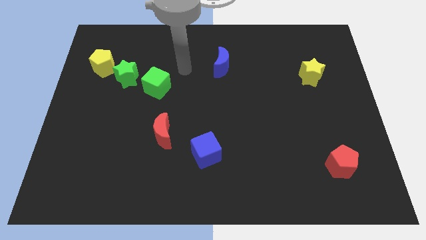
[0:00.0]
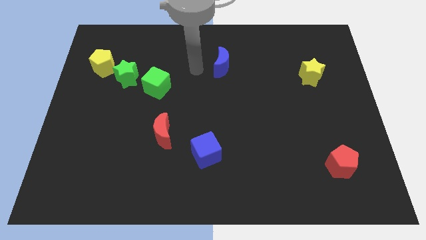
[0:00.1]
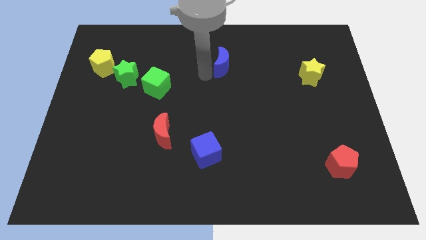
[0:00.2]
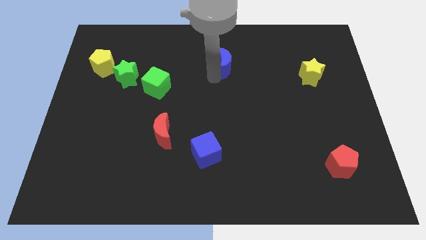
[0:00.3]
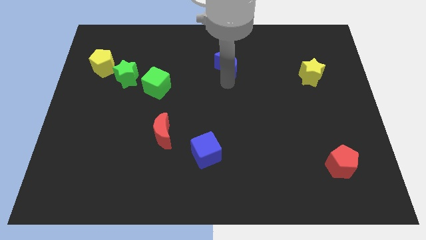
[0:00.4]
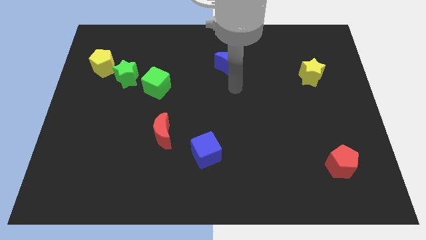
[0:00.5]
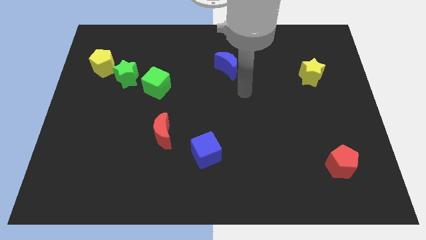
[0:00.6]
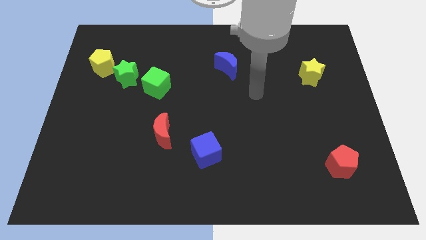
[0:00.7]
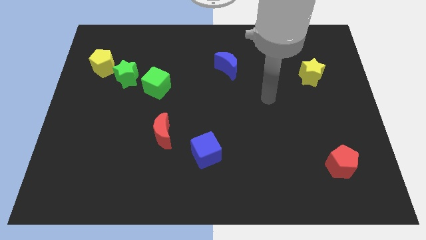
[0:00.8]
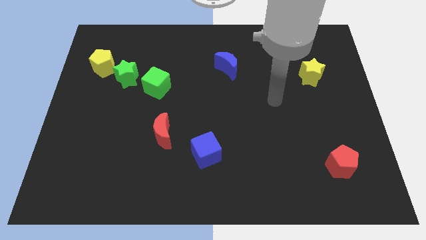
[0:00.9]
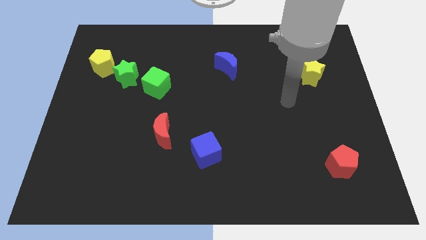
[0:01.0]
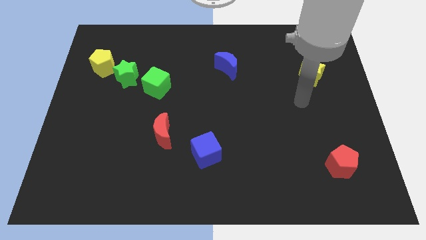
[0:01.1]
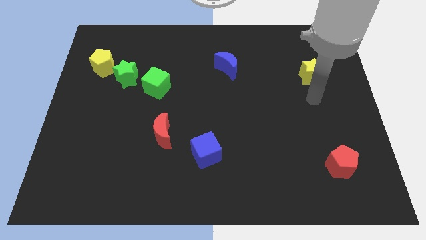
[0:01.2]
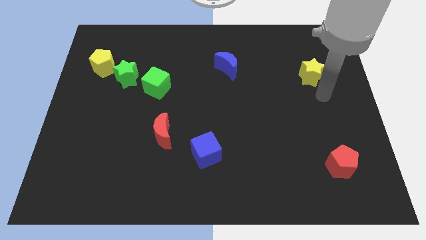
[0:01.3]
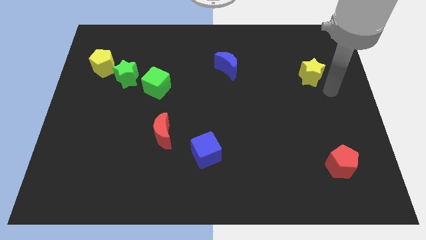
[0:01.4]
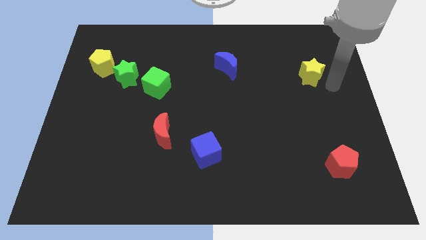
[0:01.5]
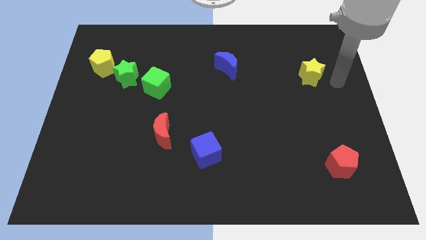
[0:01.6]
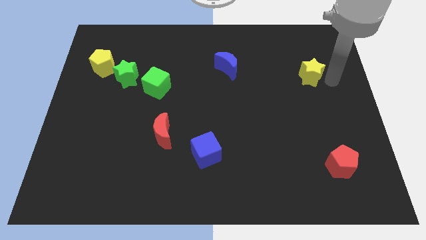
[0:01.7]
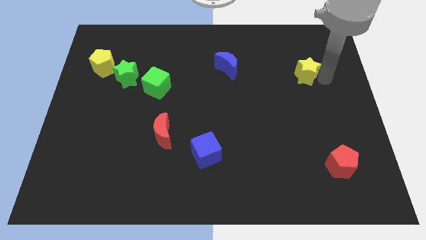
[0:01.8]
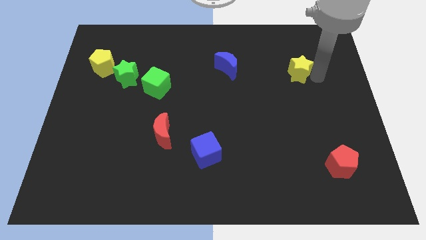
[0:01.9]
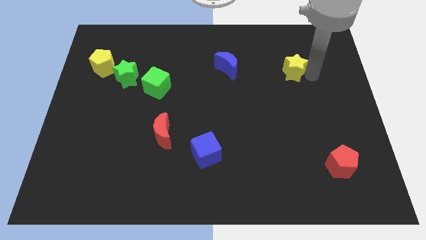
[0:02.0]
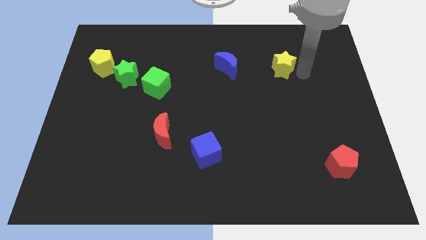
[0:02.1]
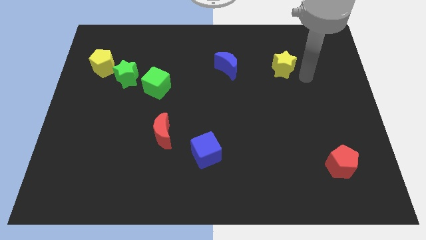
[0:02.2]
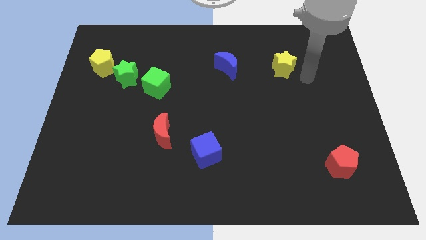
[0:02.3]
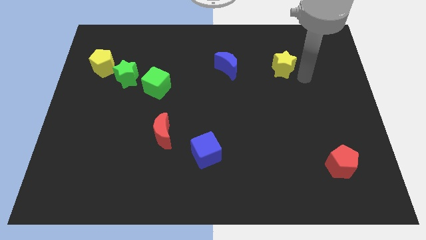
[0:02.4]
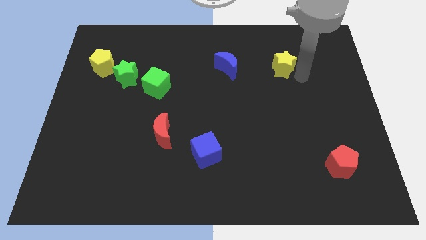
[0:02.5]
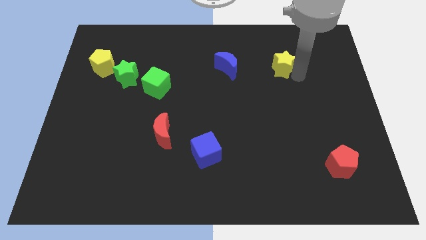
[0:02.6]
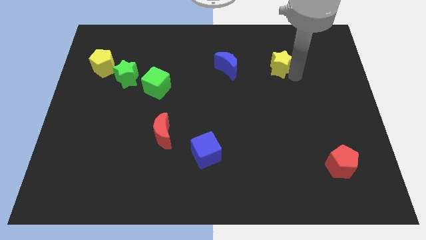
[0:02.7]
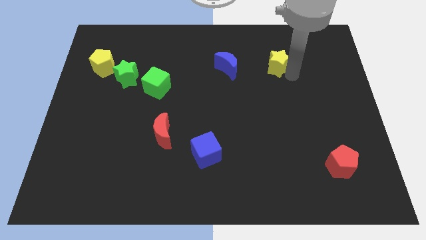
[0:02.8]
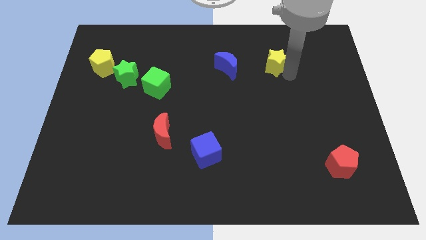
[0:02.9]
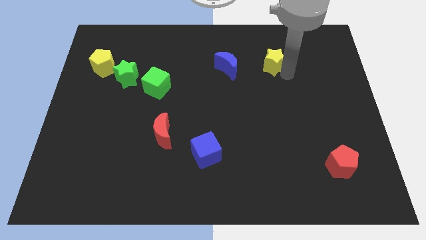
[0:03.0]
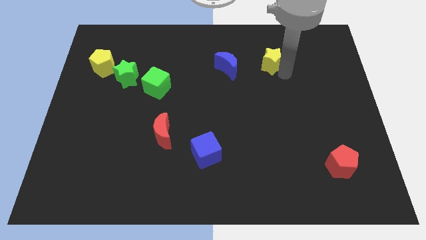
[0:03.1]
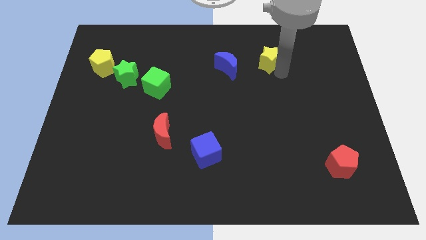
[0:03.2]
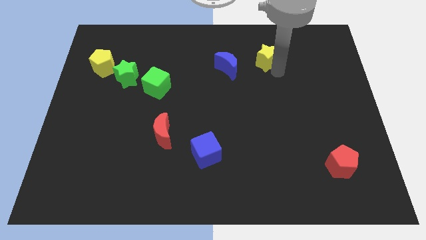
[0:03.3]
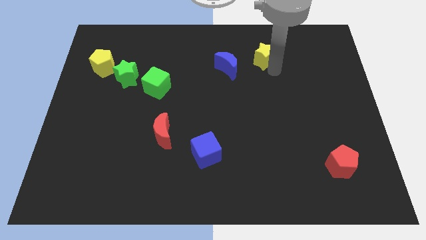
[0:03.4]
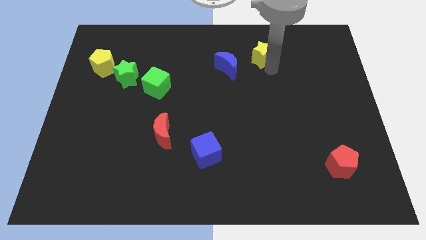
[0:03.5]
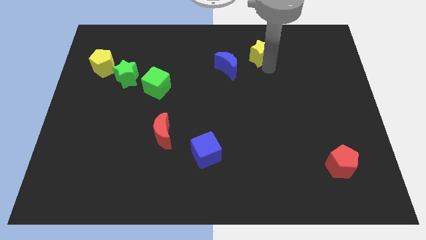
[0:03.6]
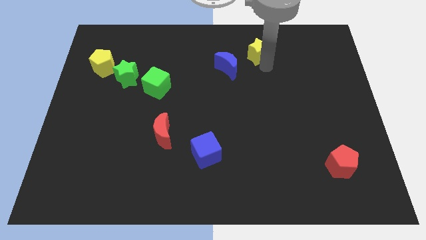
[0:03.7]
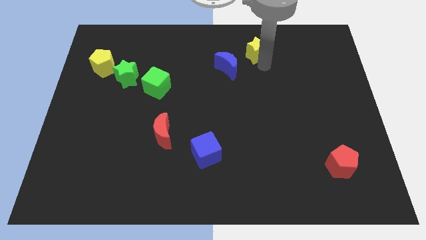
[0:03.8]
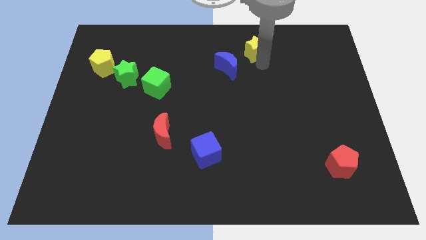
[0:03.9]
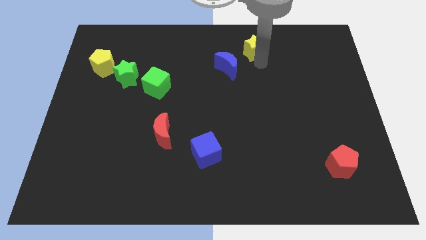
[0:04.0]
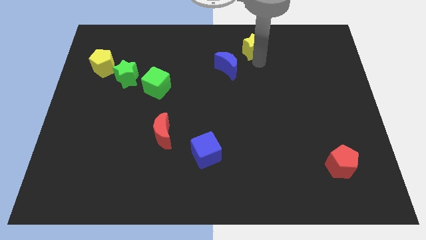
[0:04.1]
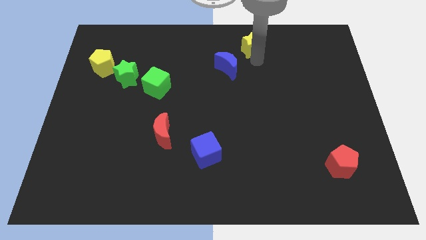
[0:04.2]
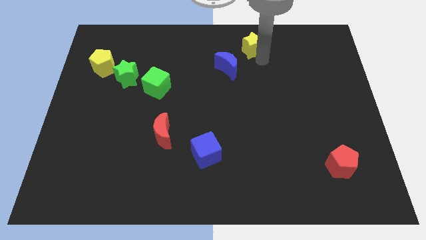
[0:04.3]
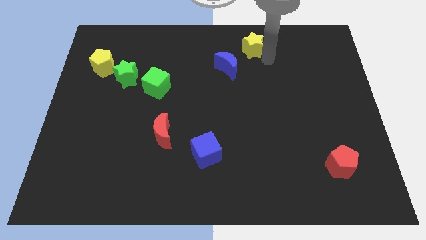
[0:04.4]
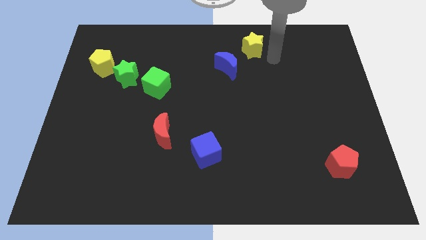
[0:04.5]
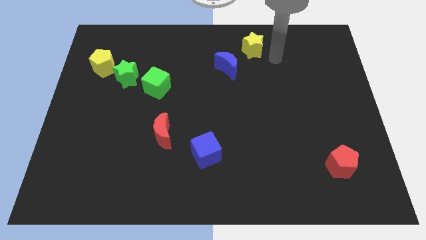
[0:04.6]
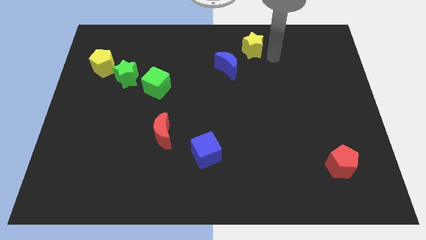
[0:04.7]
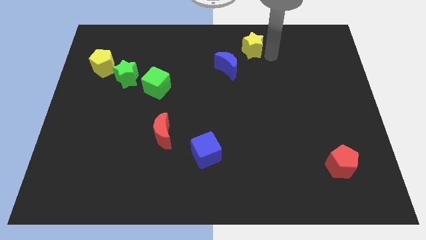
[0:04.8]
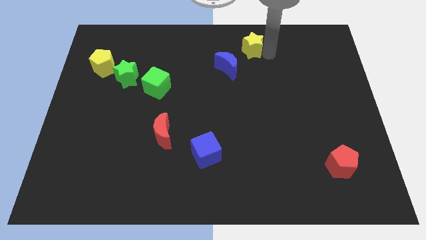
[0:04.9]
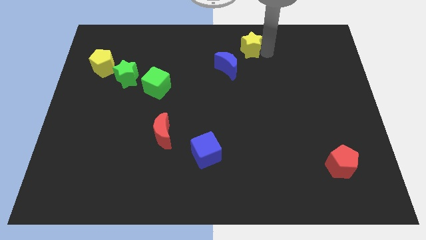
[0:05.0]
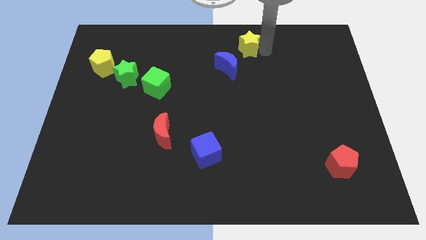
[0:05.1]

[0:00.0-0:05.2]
push the yellow star to the towards your base

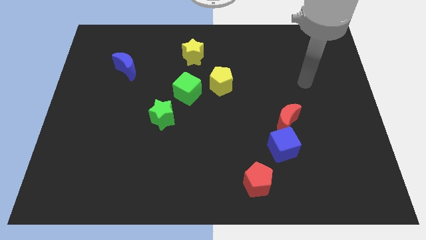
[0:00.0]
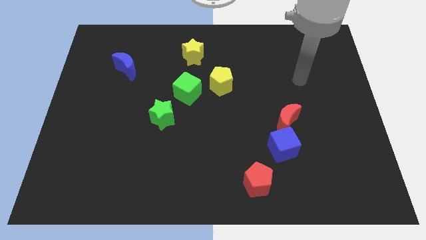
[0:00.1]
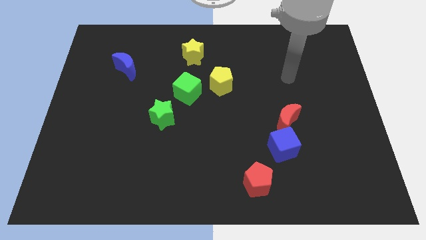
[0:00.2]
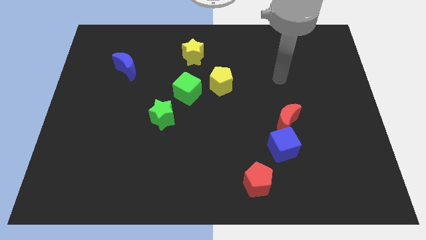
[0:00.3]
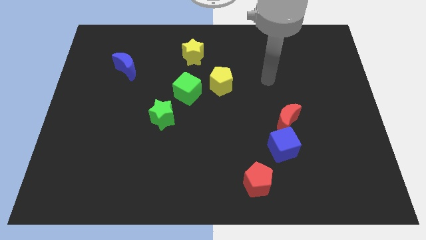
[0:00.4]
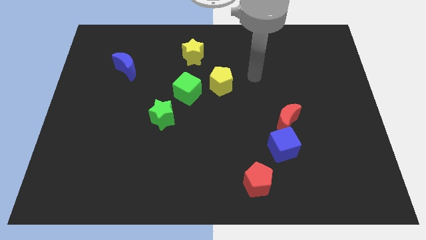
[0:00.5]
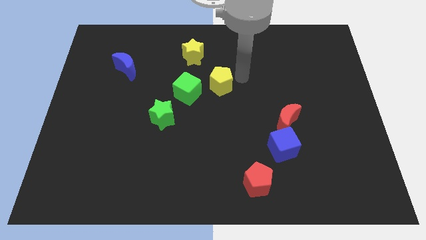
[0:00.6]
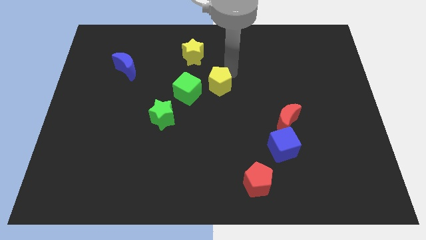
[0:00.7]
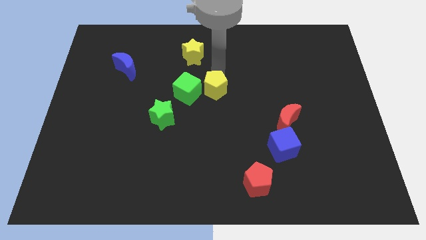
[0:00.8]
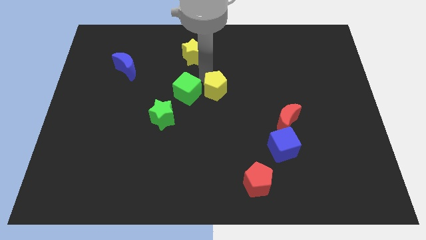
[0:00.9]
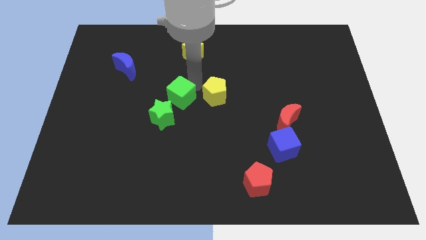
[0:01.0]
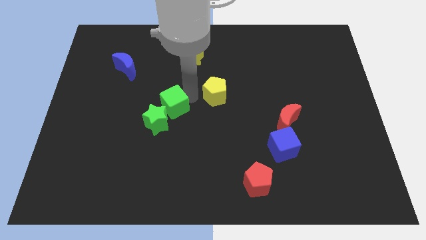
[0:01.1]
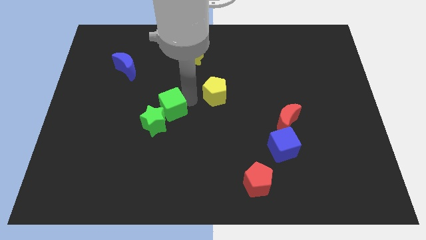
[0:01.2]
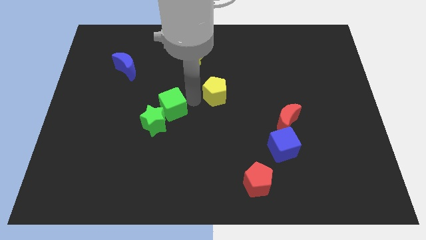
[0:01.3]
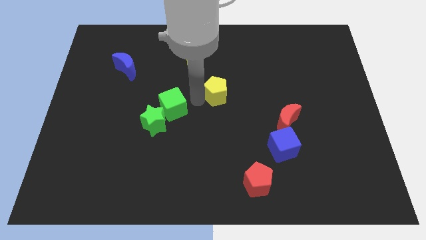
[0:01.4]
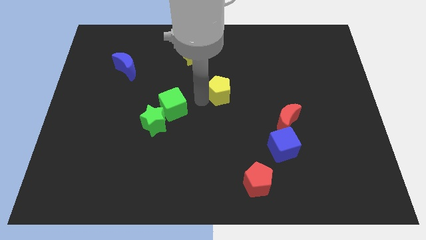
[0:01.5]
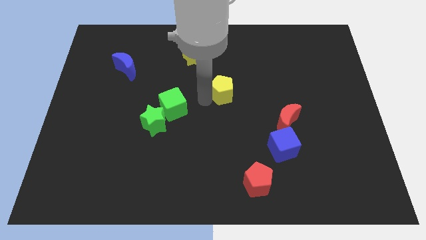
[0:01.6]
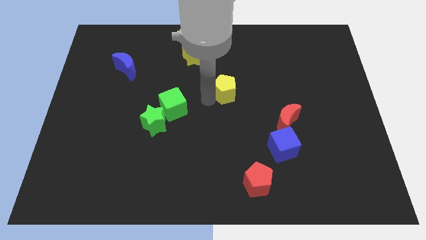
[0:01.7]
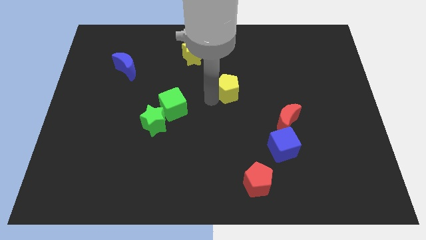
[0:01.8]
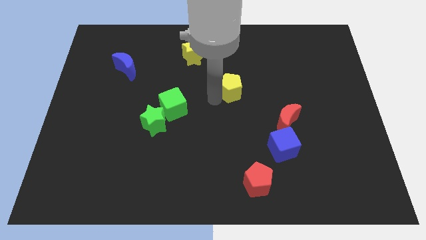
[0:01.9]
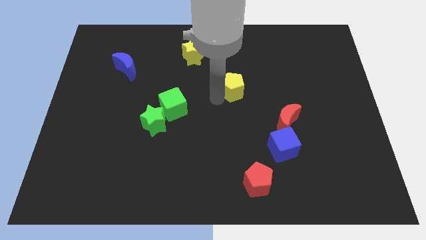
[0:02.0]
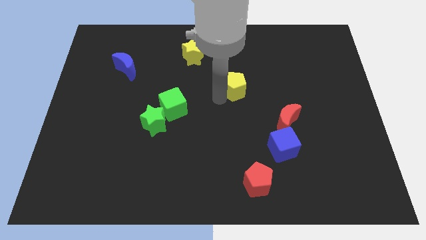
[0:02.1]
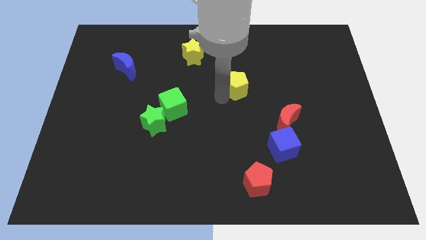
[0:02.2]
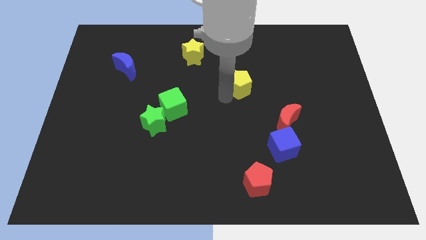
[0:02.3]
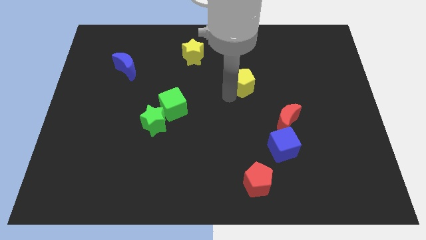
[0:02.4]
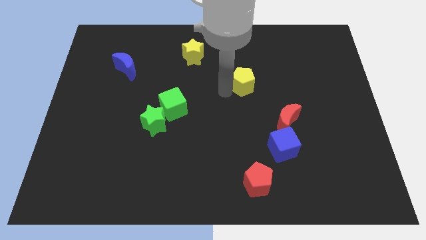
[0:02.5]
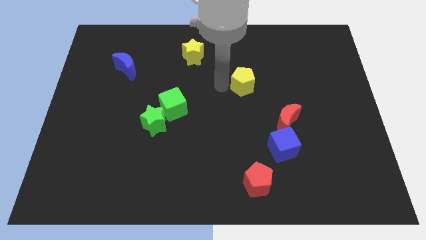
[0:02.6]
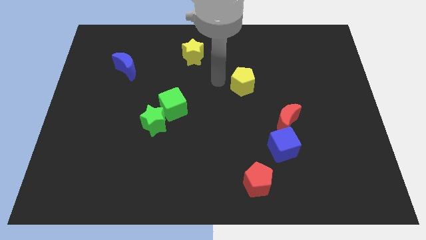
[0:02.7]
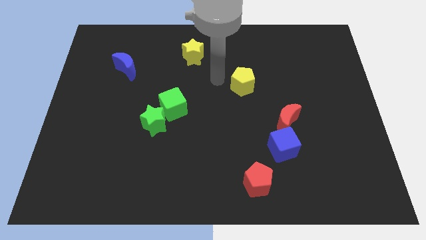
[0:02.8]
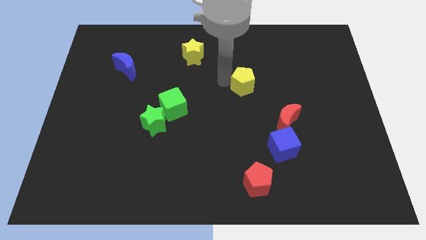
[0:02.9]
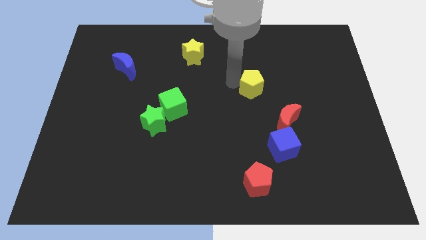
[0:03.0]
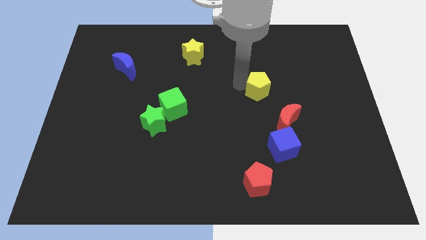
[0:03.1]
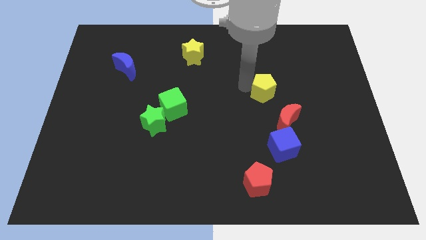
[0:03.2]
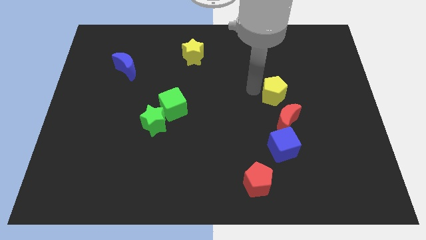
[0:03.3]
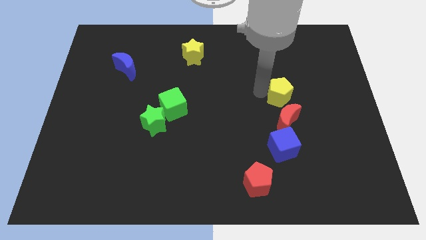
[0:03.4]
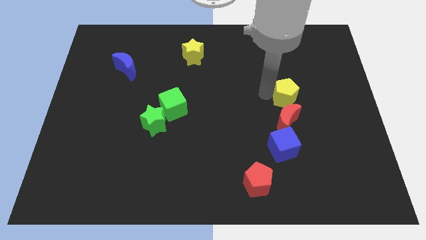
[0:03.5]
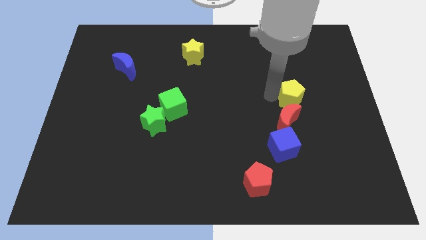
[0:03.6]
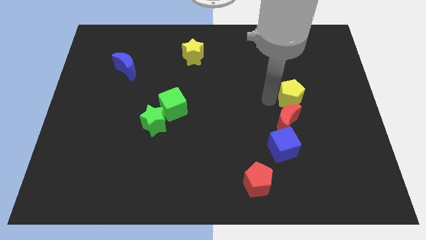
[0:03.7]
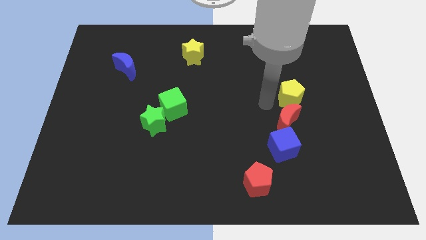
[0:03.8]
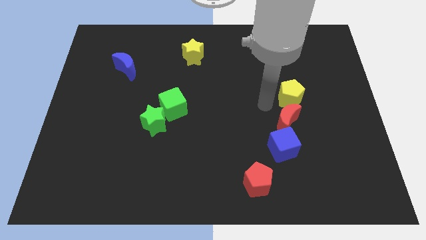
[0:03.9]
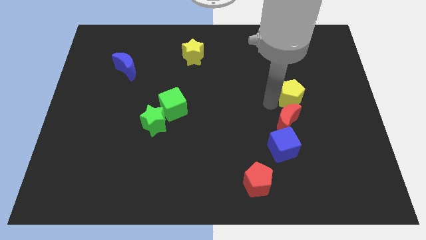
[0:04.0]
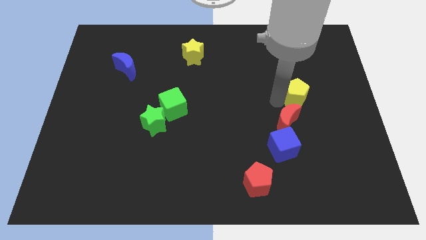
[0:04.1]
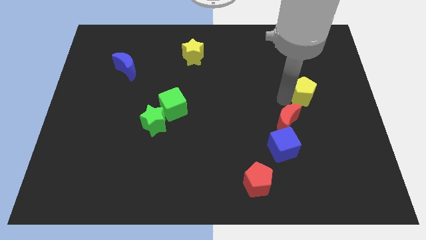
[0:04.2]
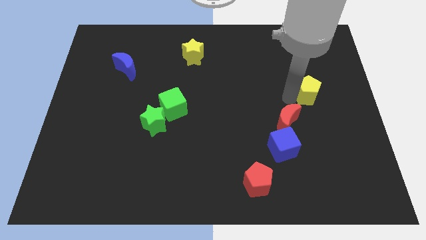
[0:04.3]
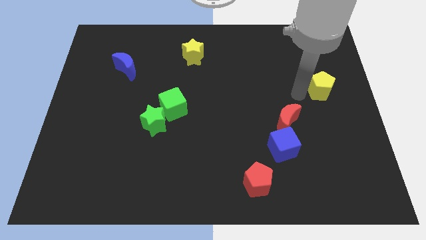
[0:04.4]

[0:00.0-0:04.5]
move the yellow pentagon to the right side
